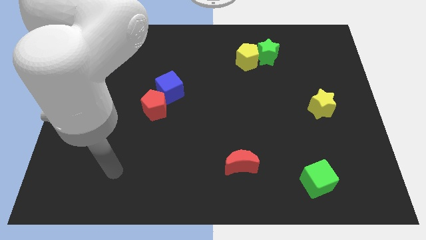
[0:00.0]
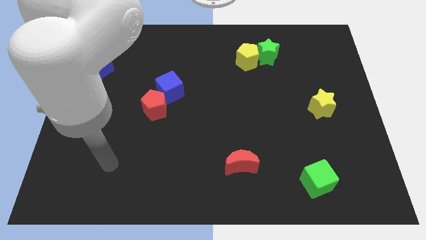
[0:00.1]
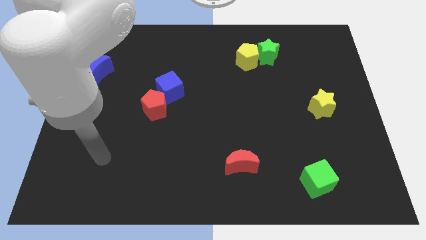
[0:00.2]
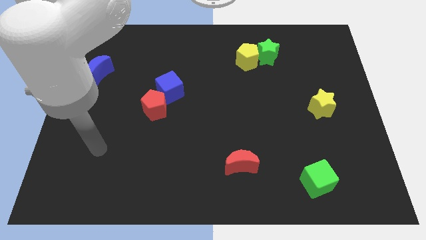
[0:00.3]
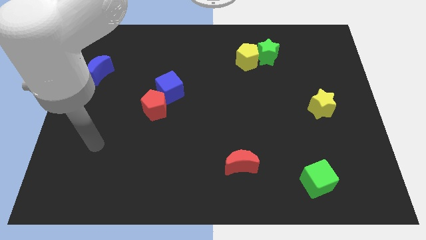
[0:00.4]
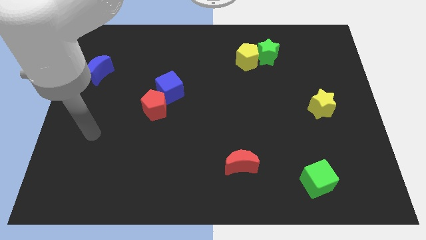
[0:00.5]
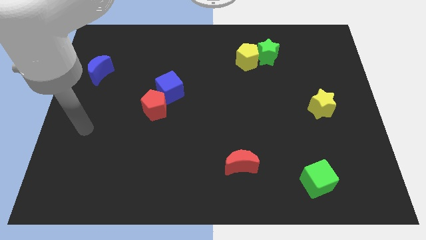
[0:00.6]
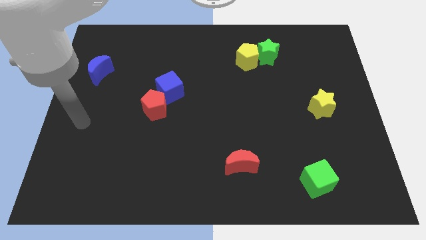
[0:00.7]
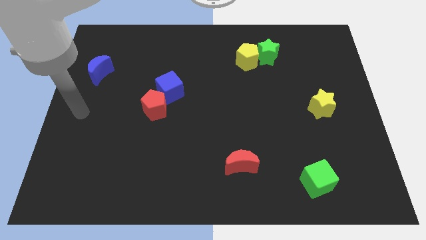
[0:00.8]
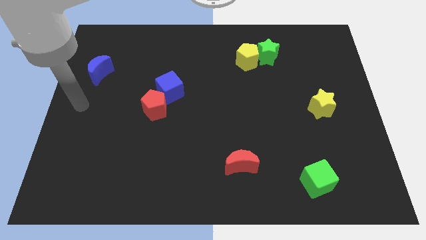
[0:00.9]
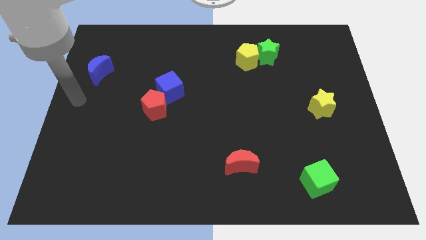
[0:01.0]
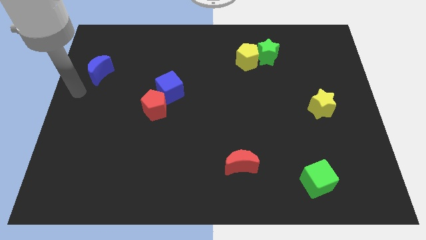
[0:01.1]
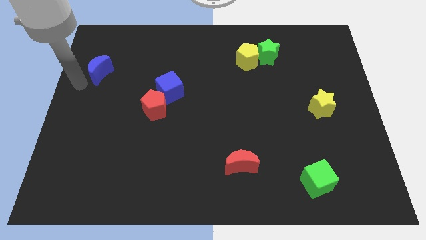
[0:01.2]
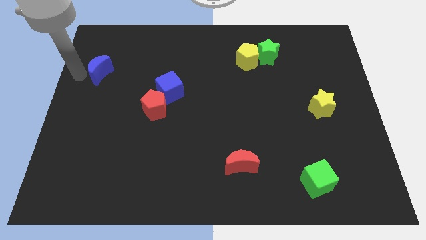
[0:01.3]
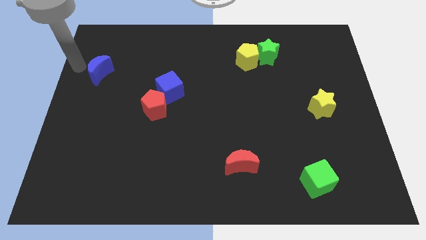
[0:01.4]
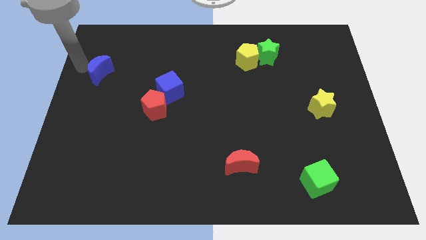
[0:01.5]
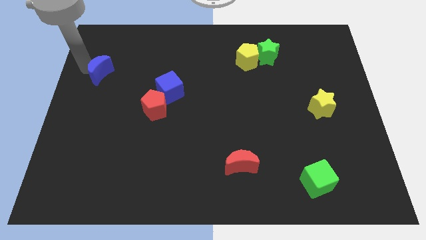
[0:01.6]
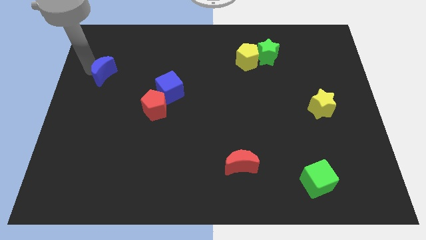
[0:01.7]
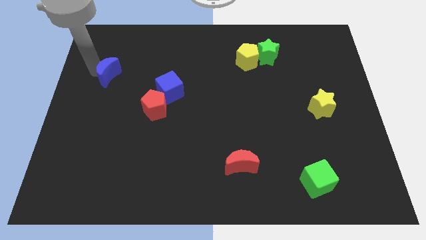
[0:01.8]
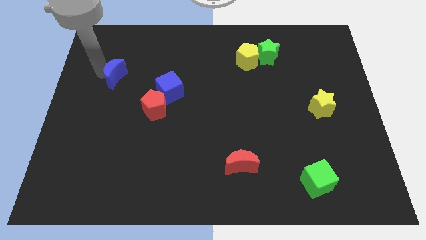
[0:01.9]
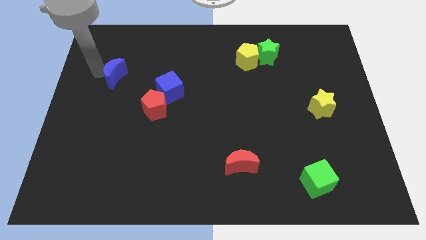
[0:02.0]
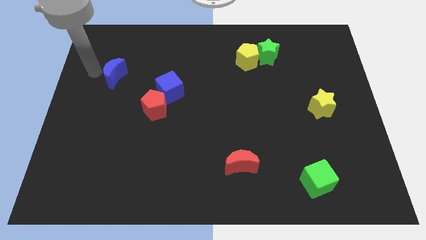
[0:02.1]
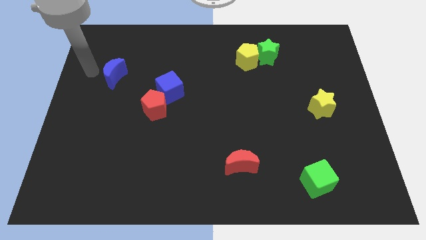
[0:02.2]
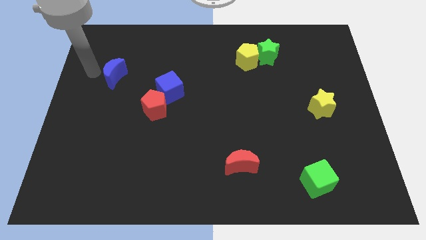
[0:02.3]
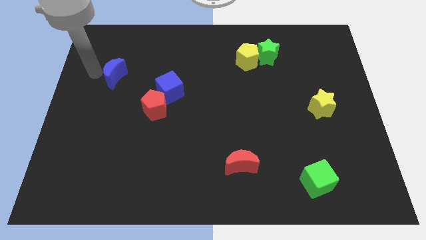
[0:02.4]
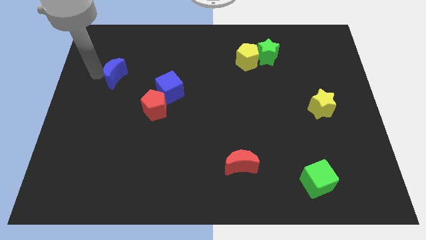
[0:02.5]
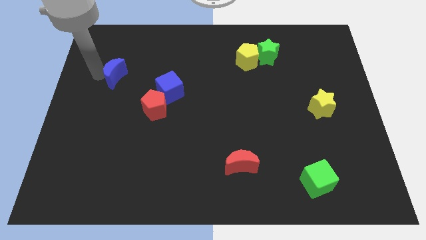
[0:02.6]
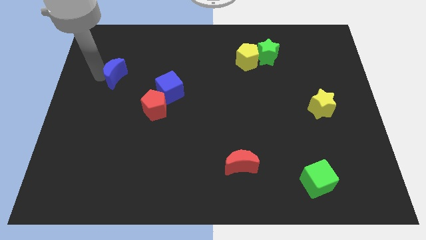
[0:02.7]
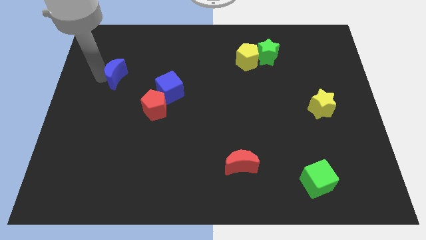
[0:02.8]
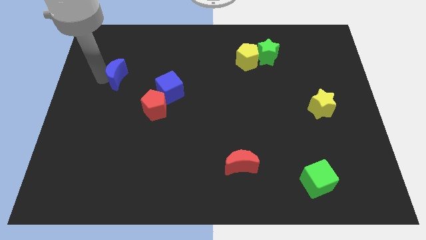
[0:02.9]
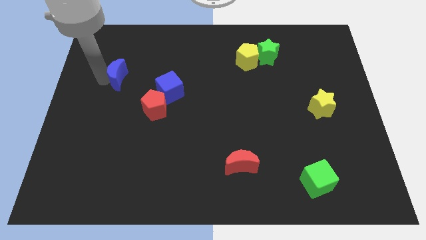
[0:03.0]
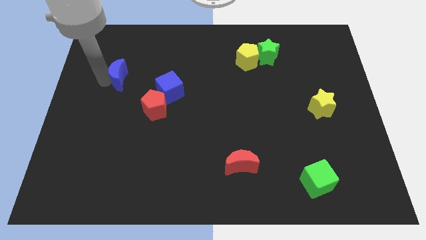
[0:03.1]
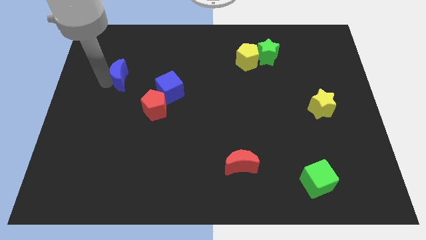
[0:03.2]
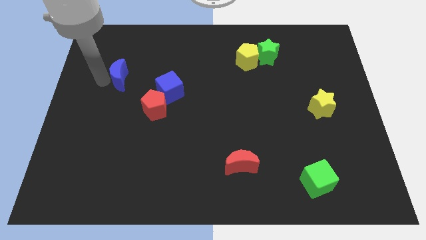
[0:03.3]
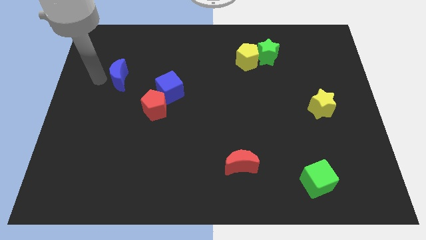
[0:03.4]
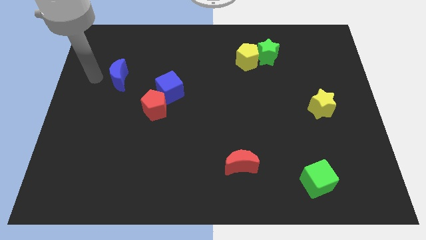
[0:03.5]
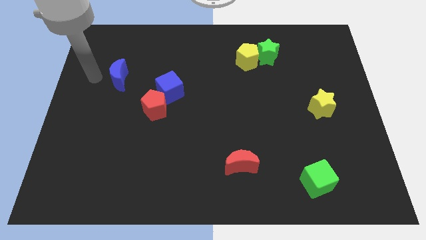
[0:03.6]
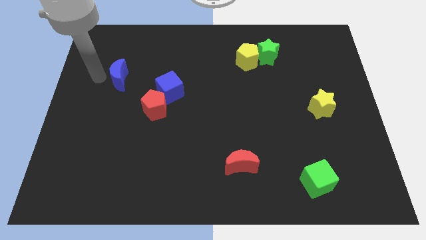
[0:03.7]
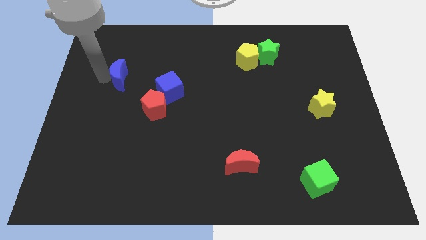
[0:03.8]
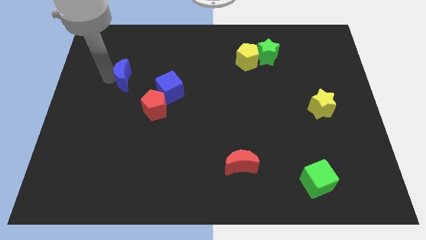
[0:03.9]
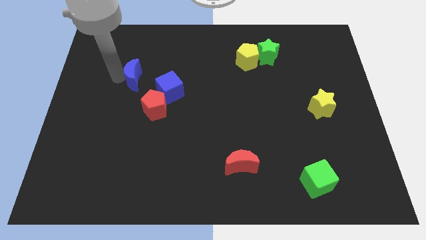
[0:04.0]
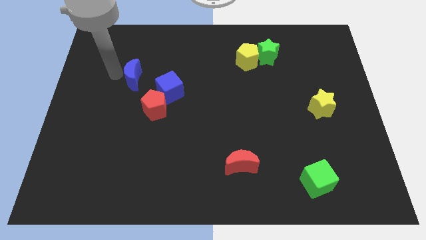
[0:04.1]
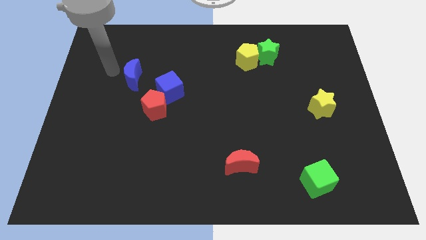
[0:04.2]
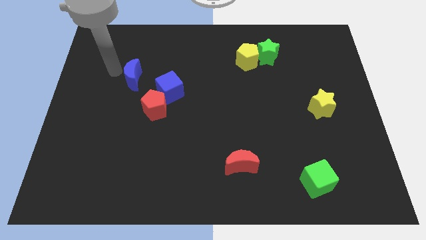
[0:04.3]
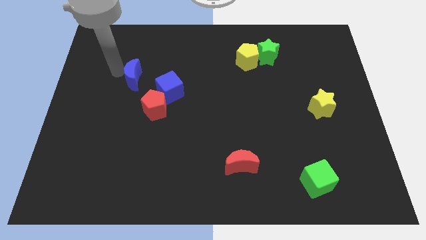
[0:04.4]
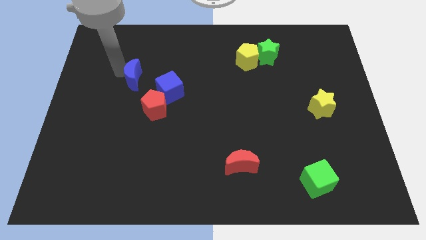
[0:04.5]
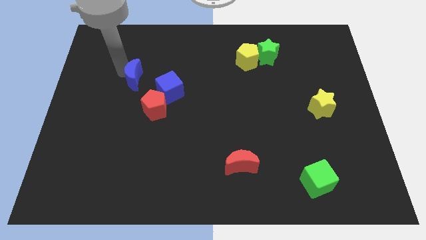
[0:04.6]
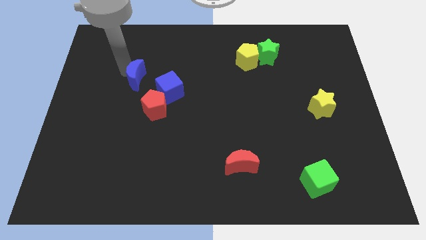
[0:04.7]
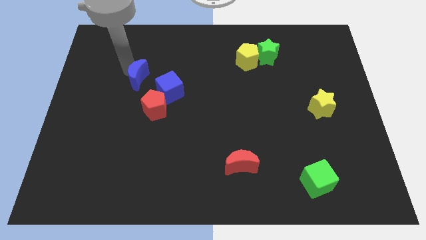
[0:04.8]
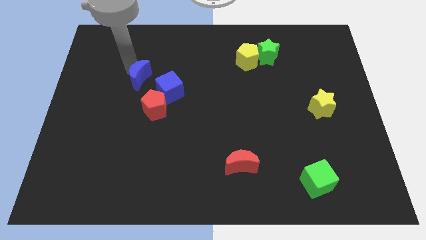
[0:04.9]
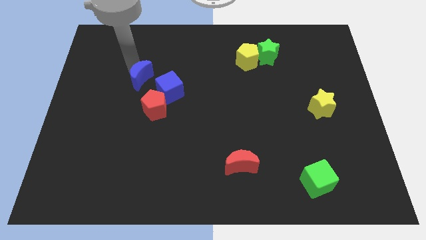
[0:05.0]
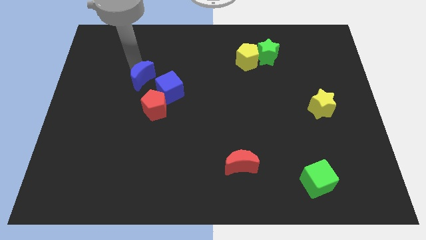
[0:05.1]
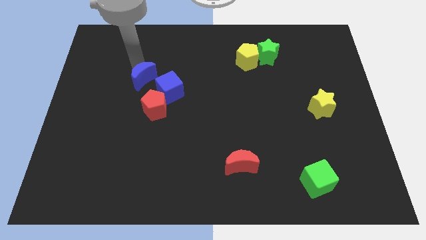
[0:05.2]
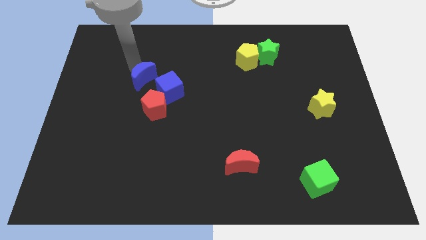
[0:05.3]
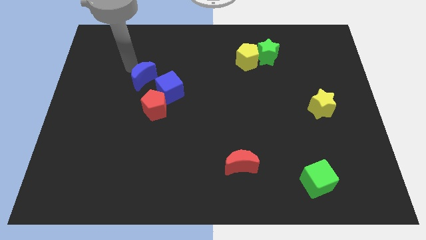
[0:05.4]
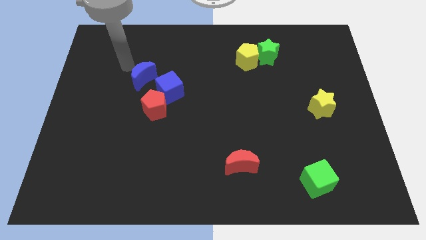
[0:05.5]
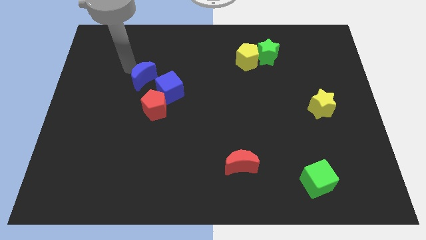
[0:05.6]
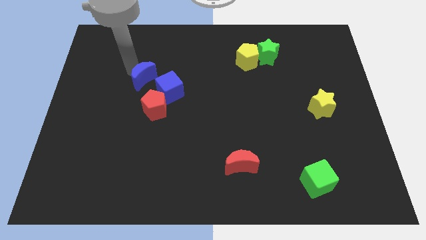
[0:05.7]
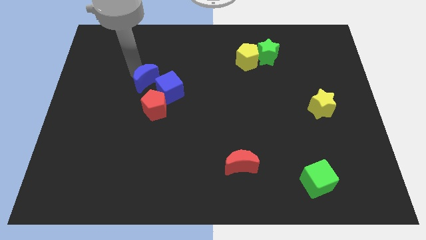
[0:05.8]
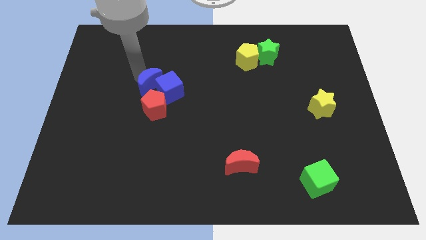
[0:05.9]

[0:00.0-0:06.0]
put the blue moon next to the blue cube

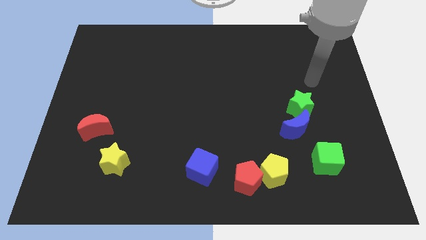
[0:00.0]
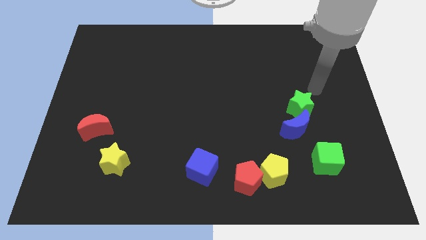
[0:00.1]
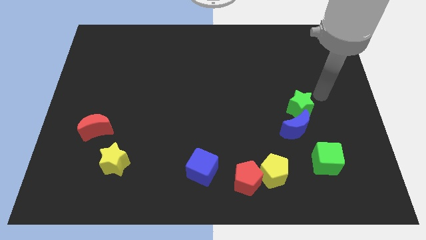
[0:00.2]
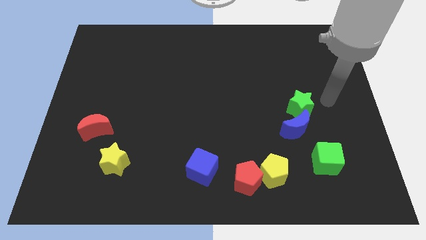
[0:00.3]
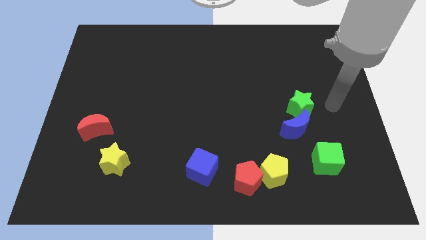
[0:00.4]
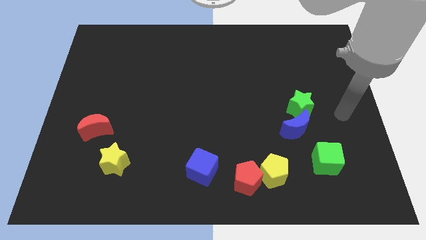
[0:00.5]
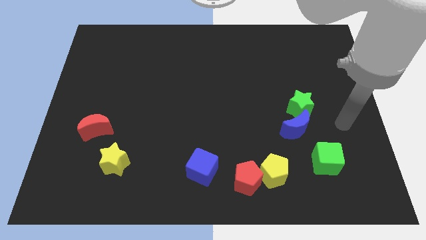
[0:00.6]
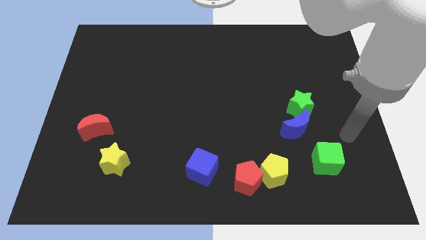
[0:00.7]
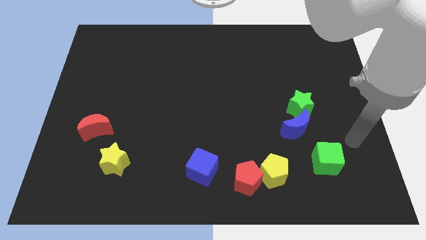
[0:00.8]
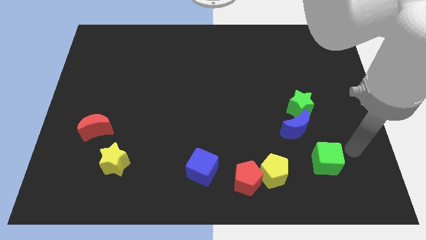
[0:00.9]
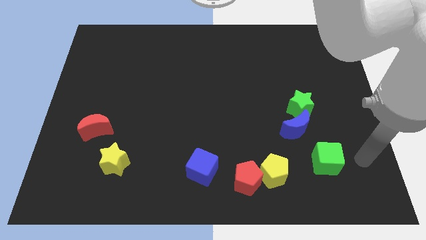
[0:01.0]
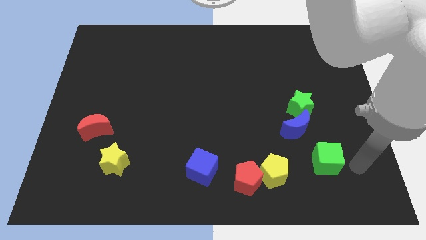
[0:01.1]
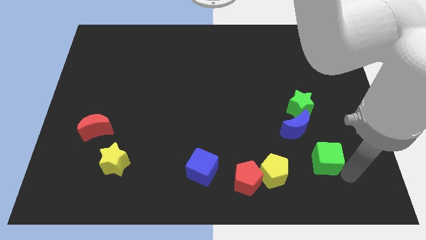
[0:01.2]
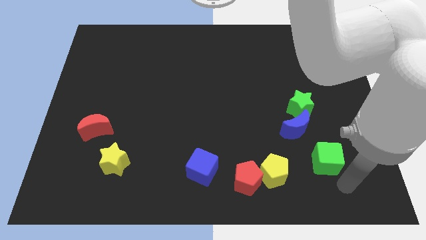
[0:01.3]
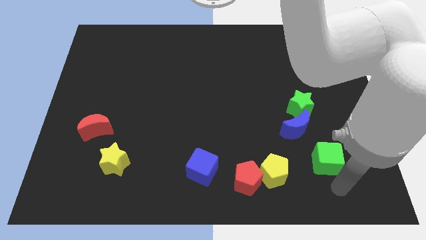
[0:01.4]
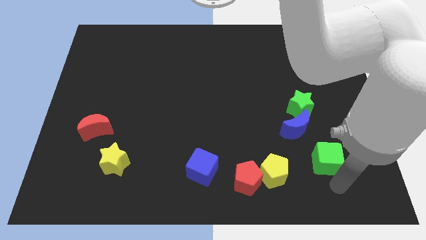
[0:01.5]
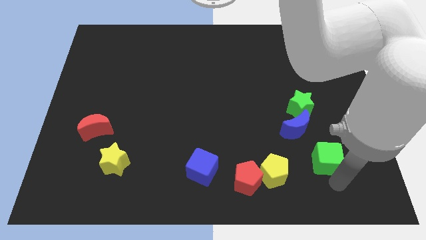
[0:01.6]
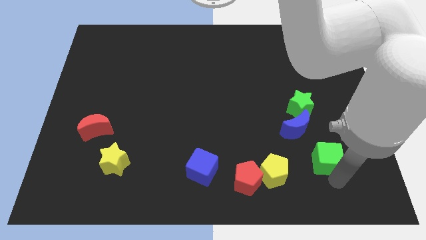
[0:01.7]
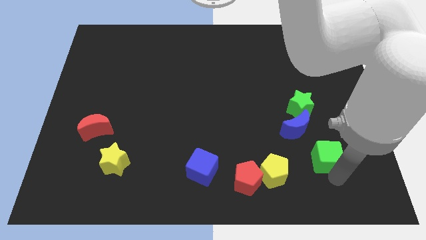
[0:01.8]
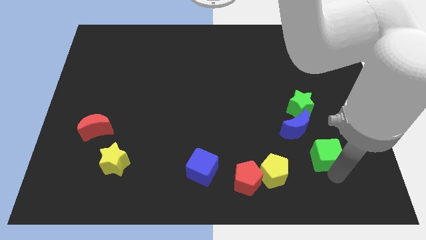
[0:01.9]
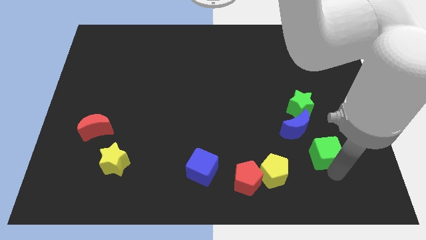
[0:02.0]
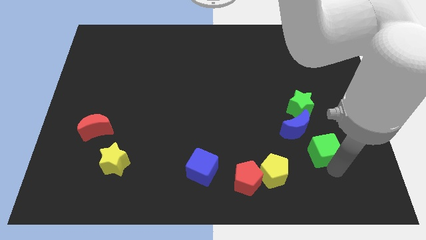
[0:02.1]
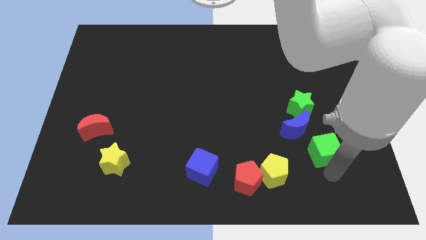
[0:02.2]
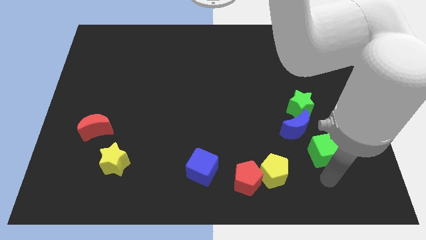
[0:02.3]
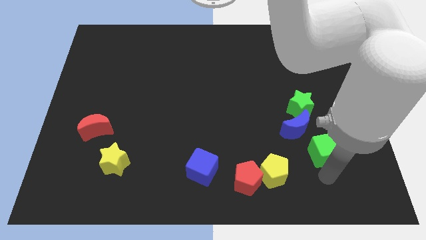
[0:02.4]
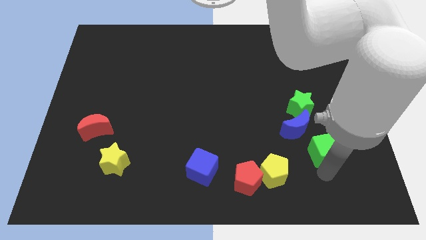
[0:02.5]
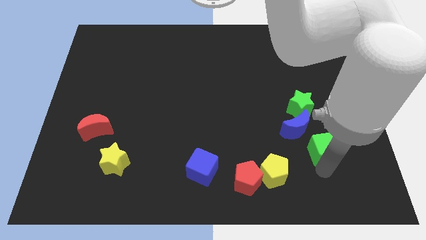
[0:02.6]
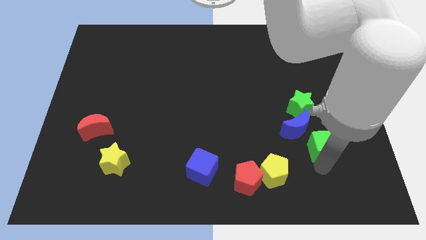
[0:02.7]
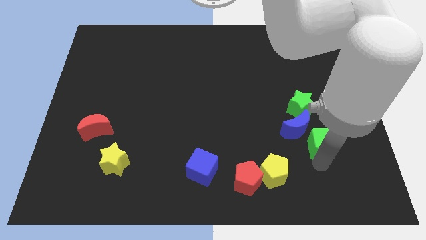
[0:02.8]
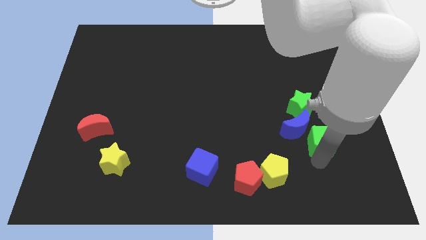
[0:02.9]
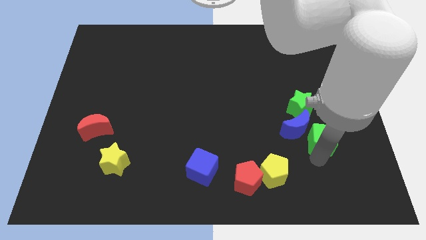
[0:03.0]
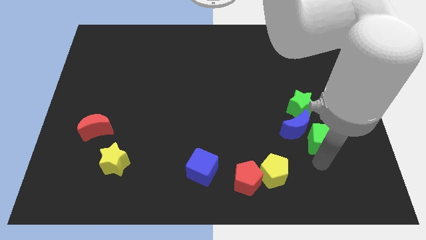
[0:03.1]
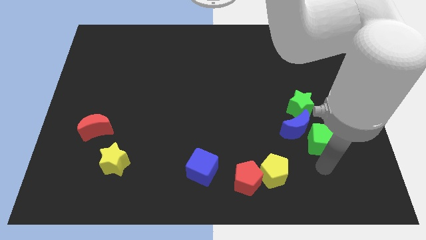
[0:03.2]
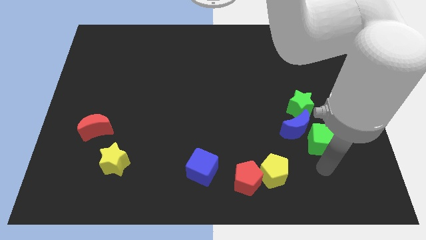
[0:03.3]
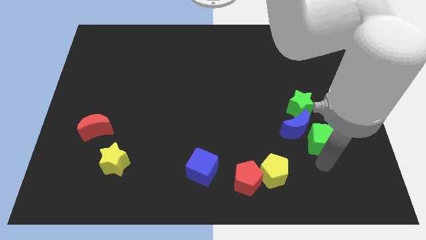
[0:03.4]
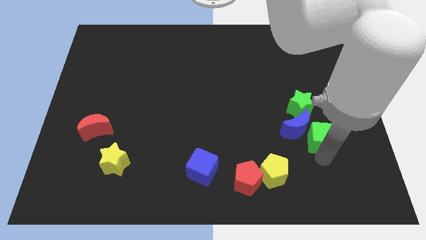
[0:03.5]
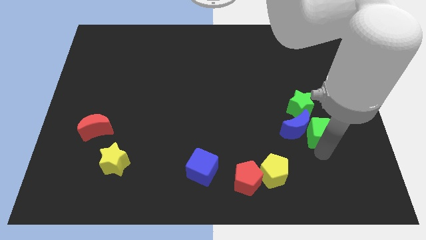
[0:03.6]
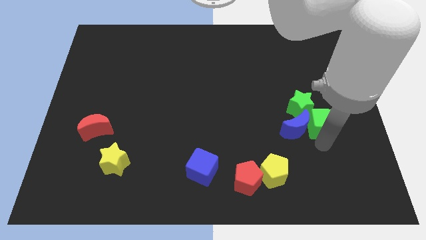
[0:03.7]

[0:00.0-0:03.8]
move the green cube close to the green star
